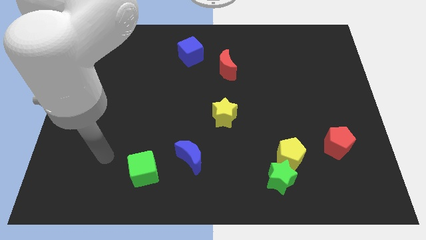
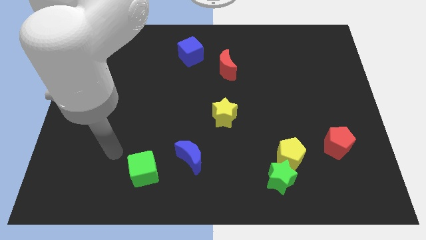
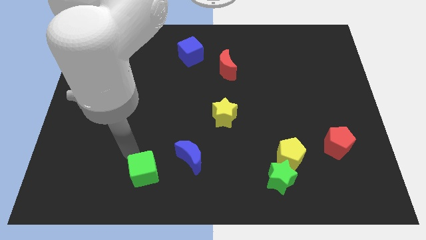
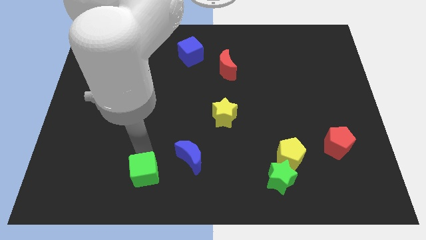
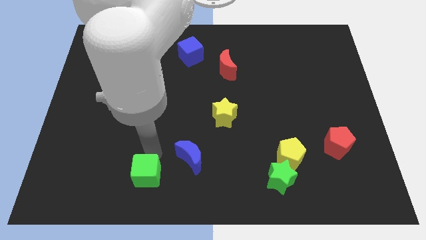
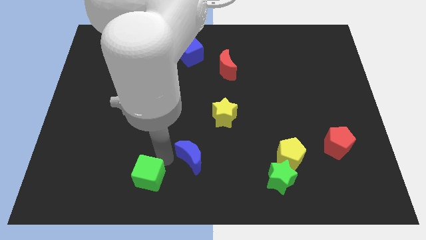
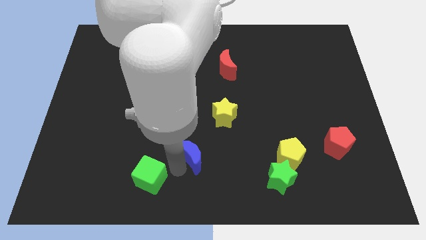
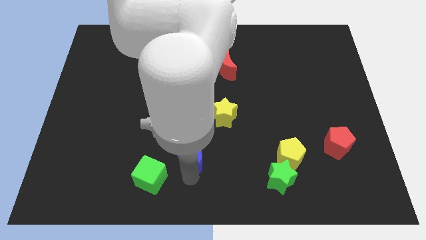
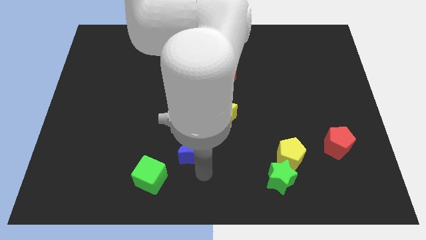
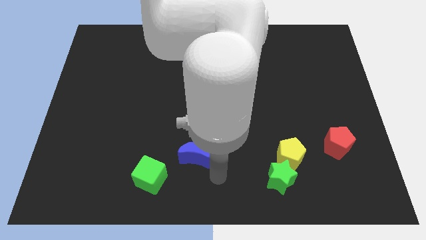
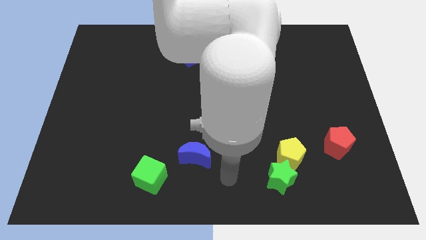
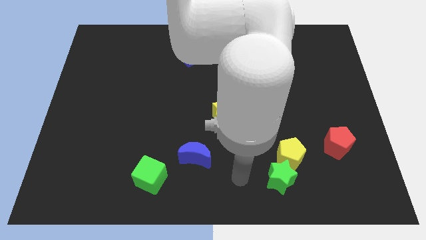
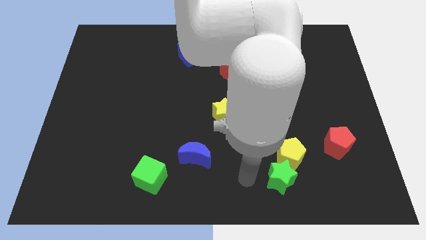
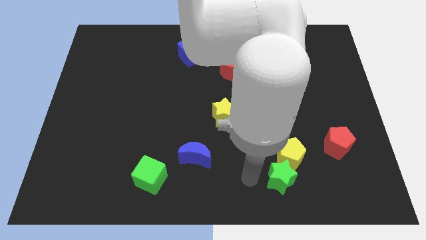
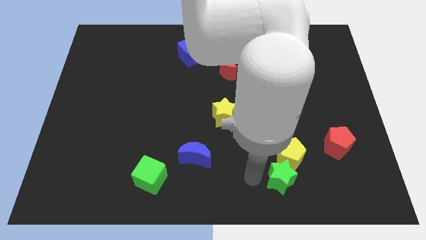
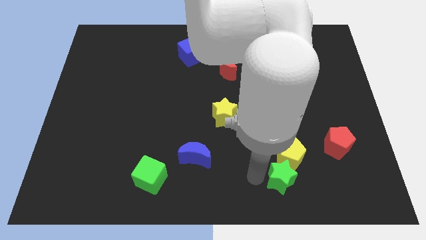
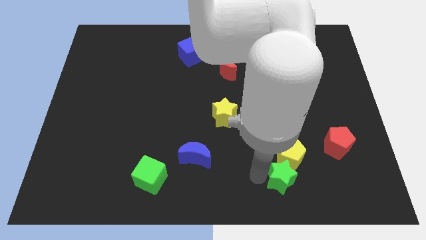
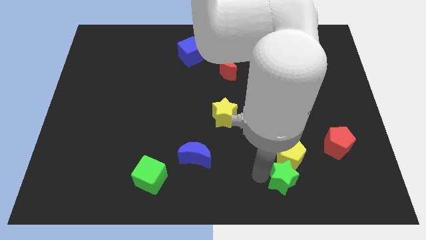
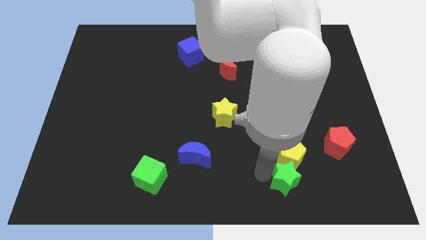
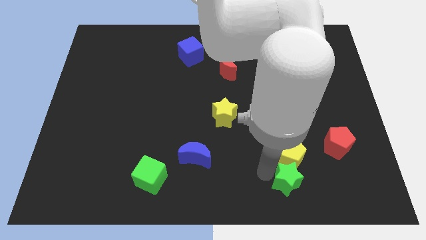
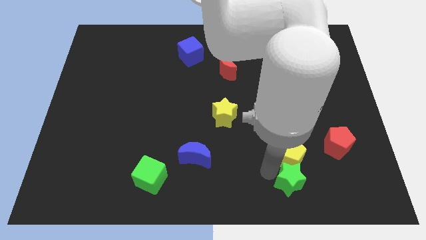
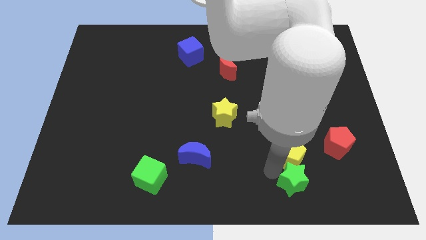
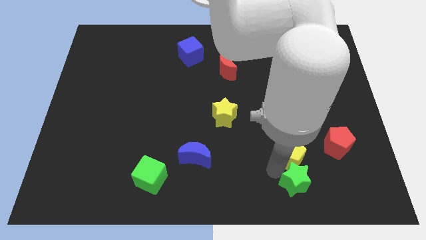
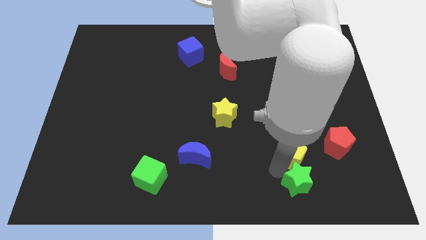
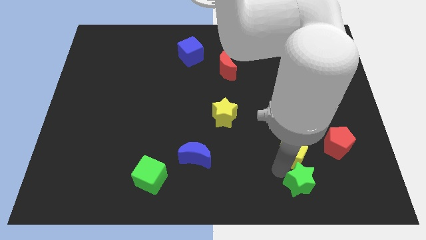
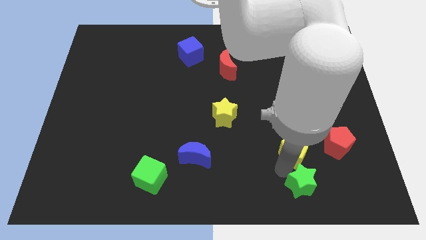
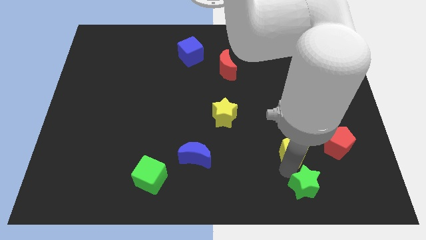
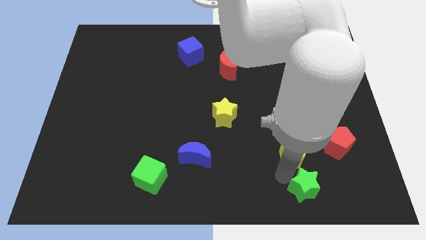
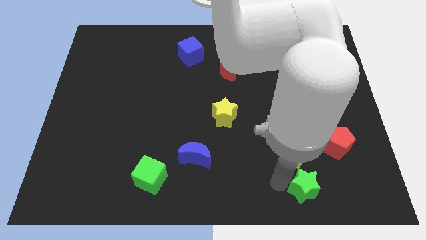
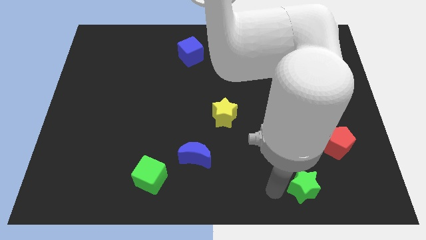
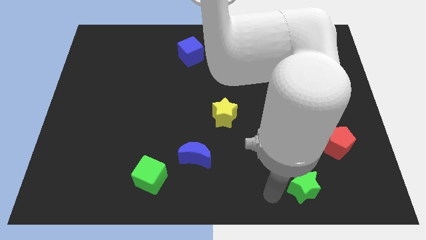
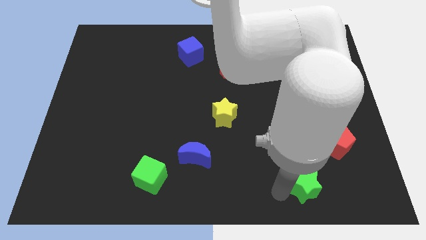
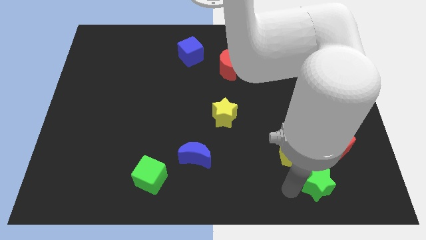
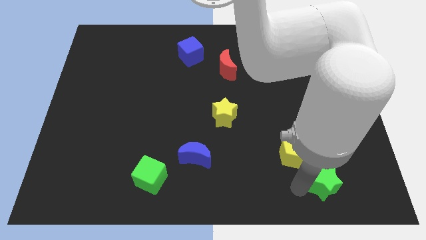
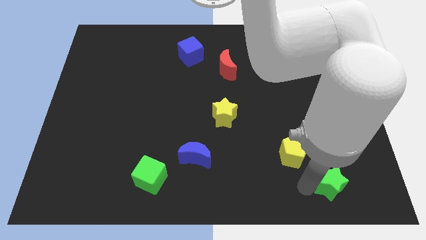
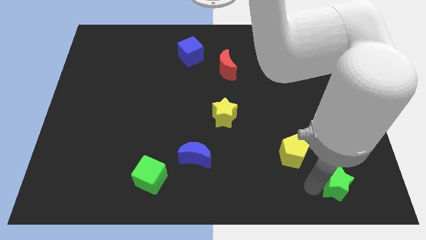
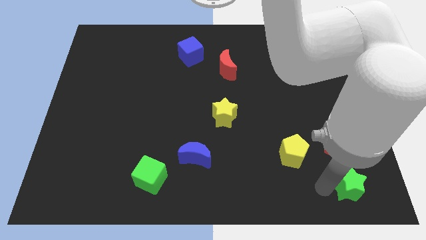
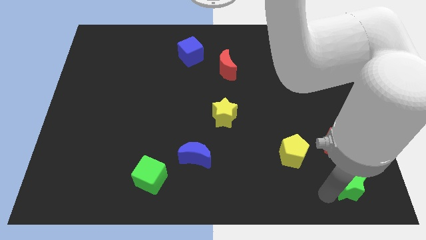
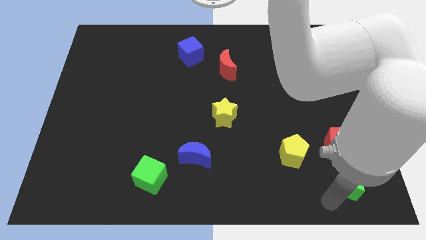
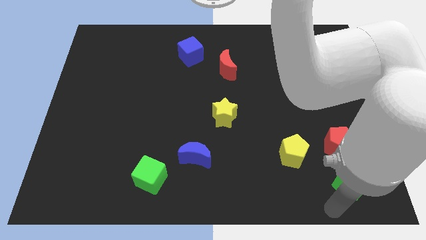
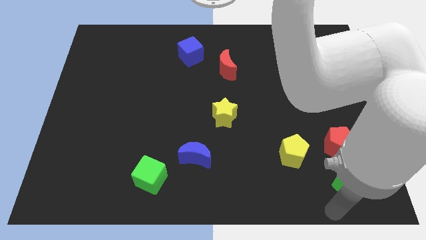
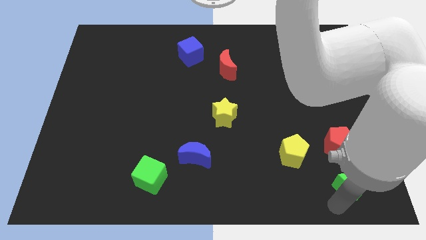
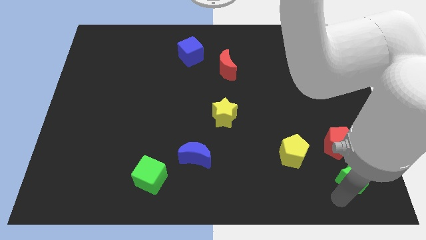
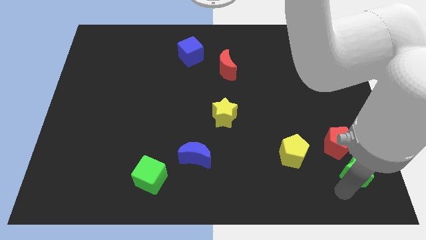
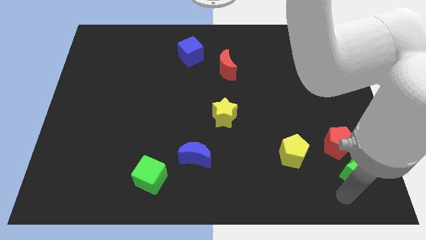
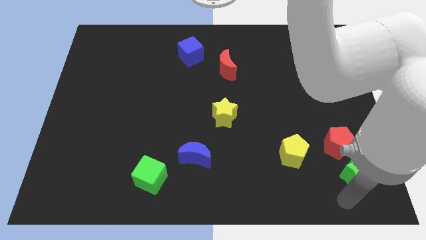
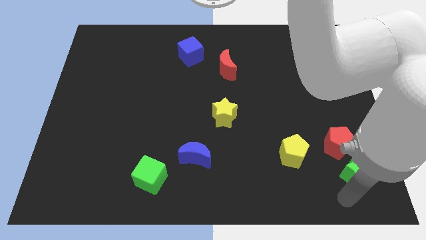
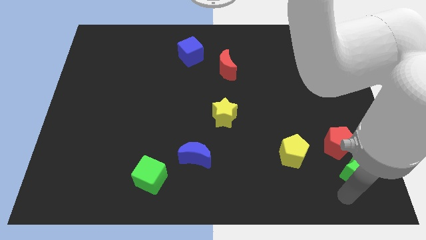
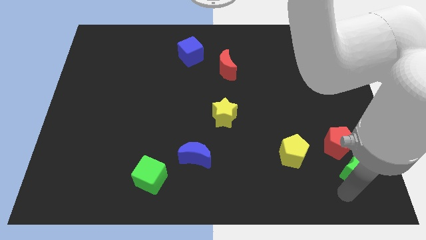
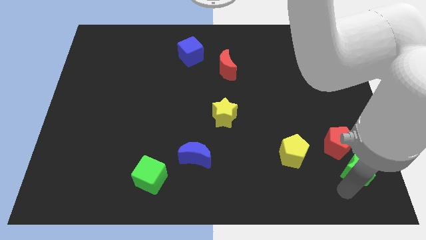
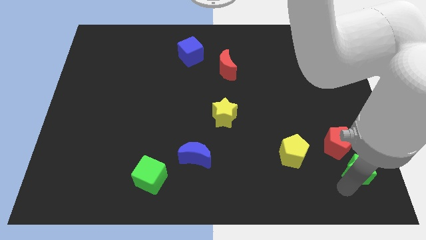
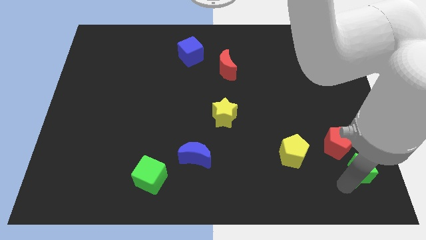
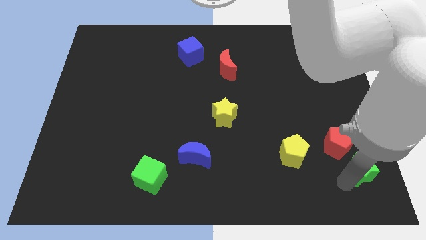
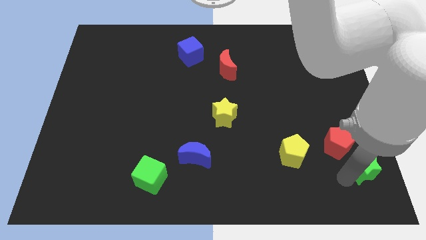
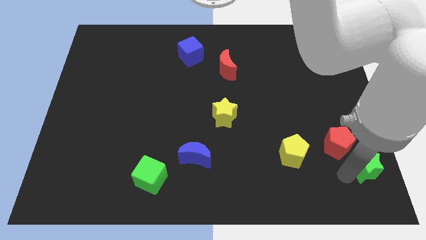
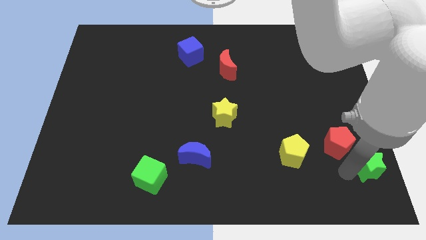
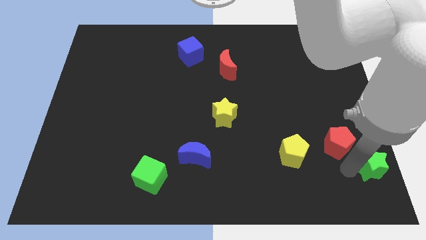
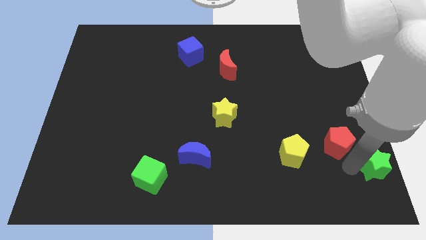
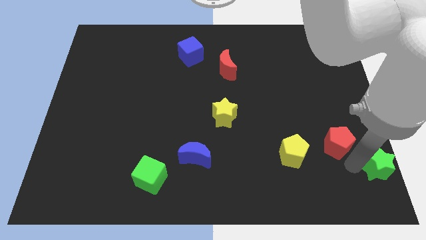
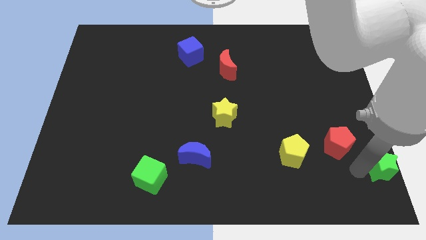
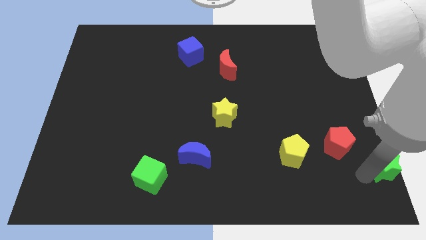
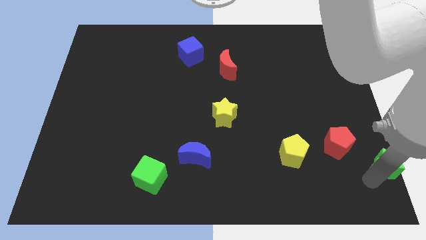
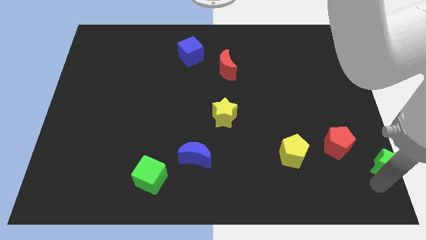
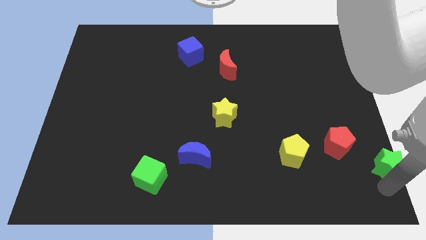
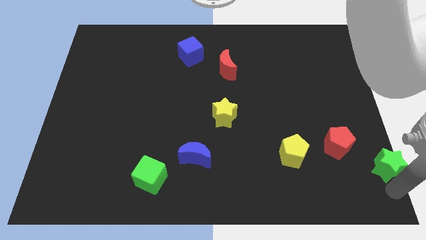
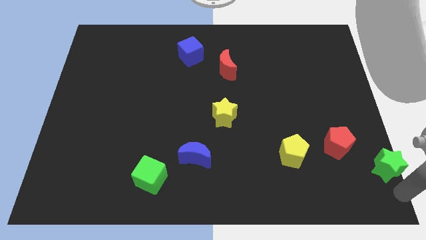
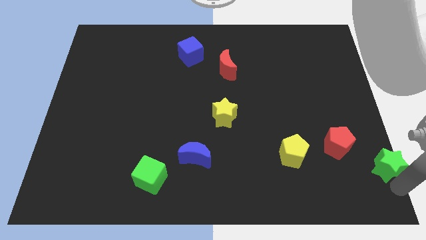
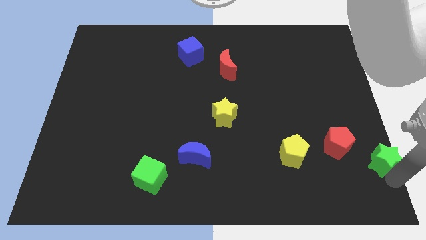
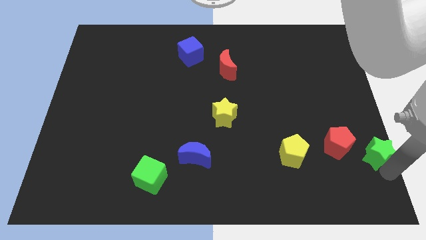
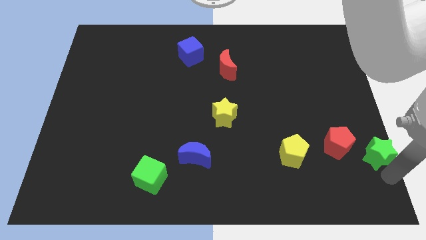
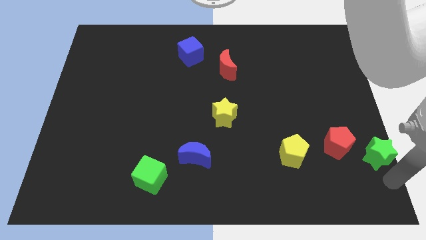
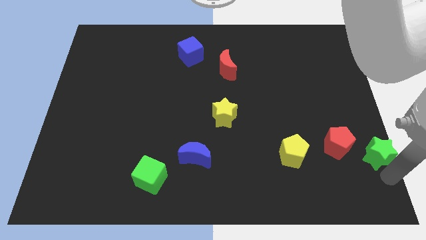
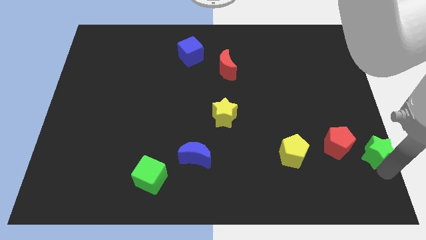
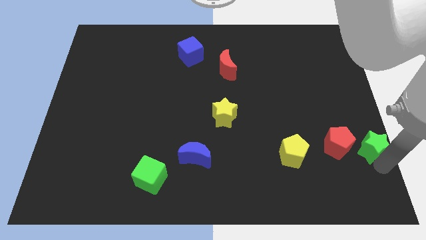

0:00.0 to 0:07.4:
put the green star to the right side

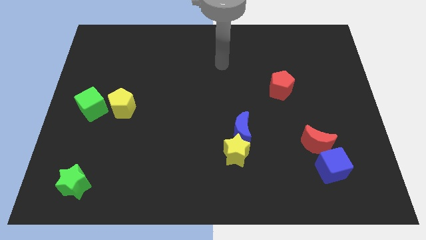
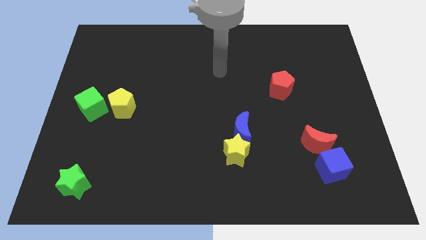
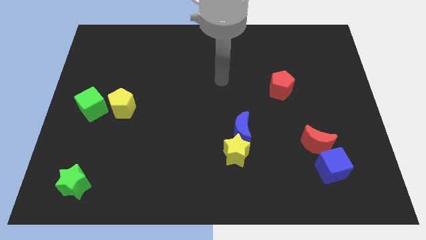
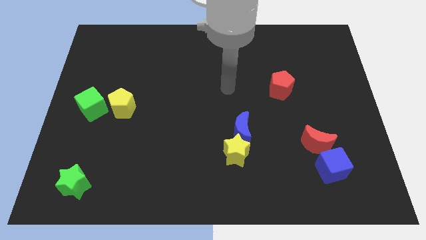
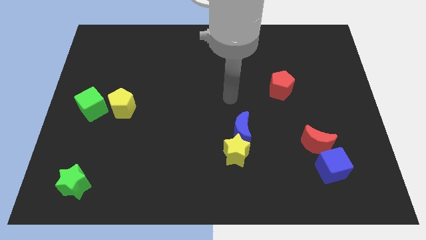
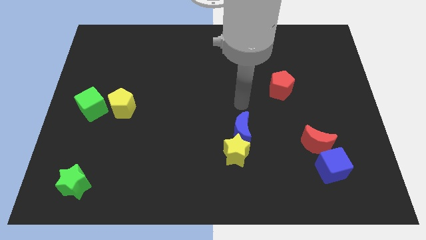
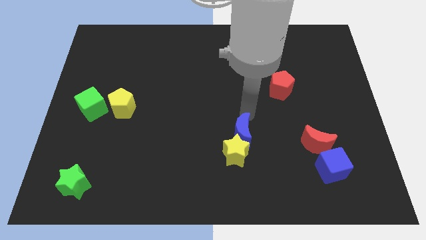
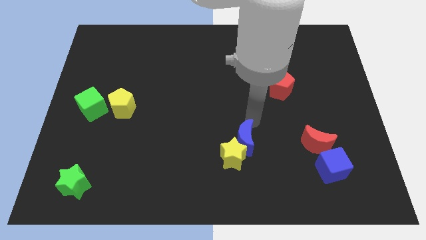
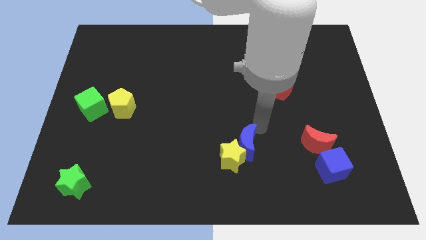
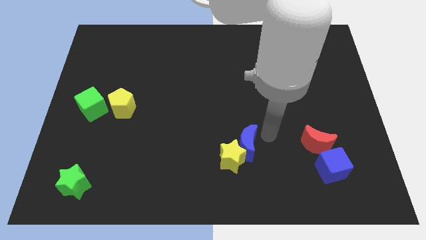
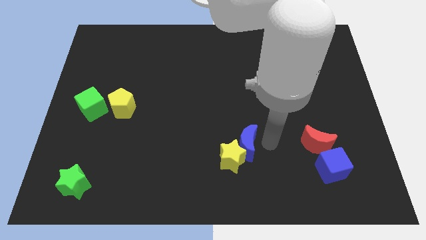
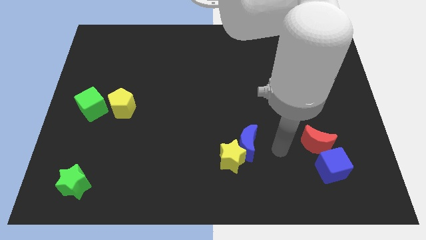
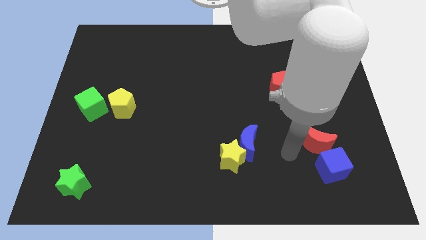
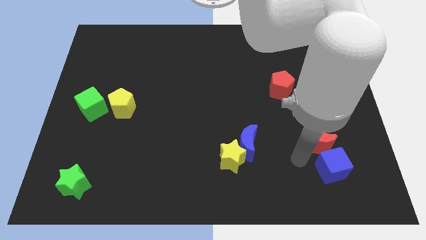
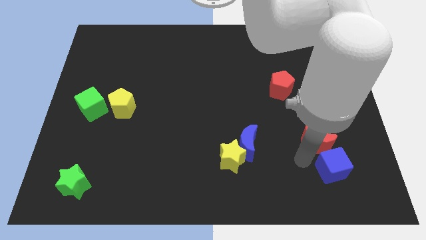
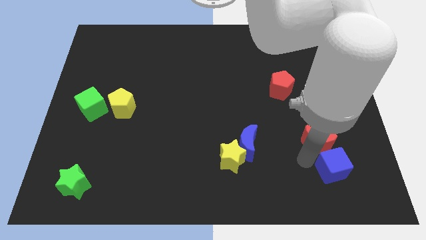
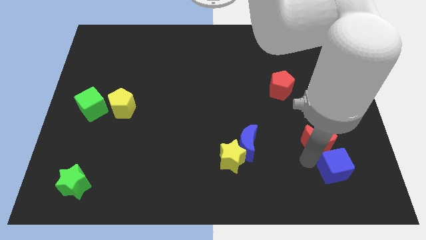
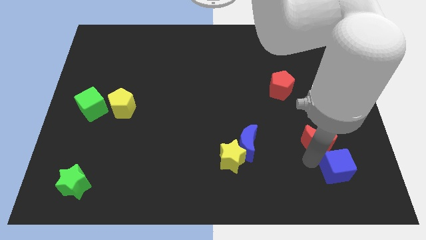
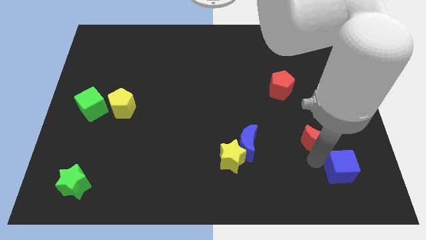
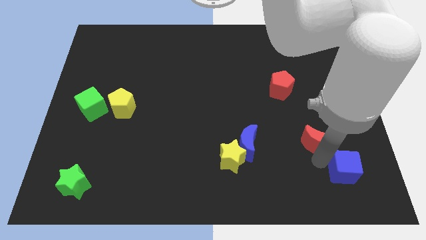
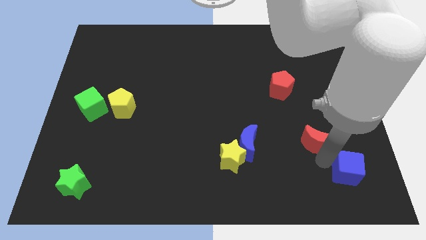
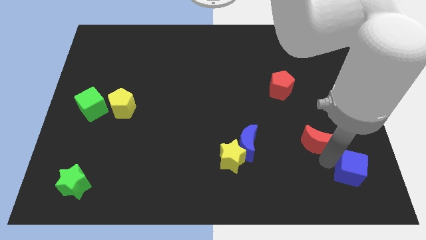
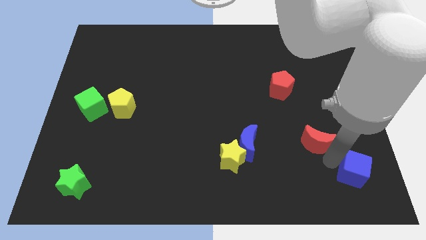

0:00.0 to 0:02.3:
slide the blue cube to the bottom right corner
